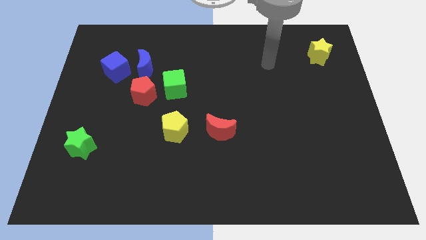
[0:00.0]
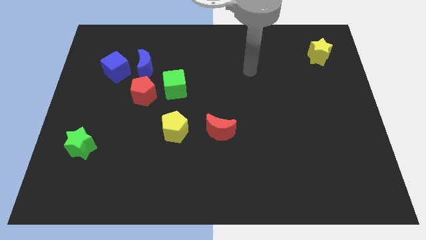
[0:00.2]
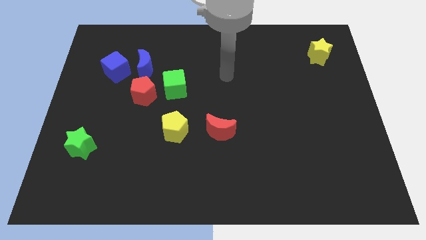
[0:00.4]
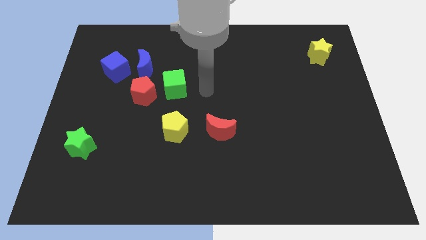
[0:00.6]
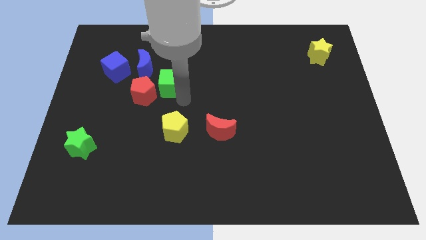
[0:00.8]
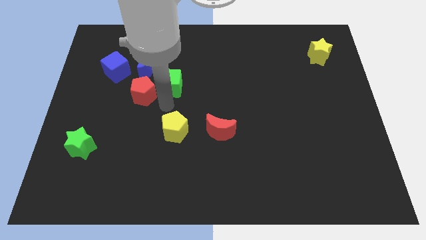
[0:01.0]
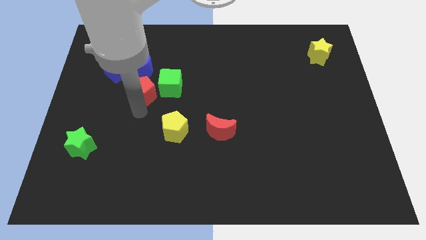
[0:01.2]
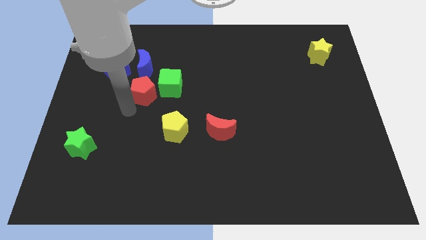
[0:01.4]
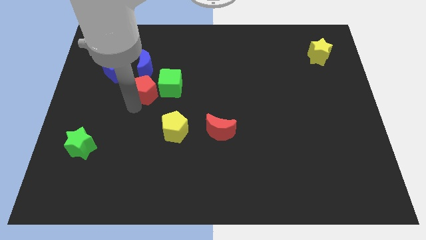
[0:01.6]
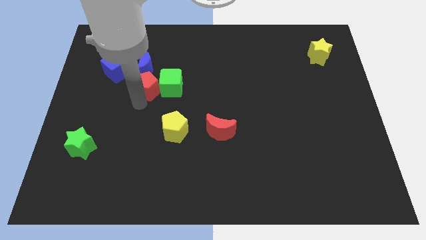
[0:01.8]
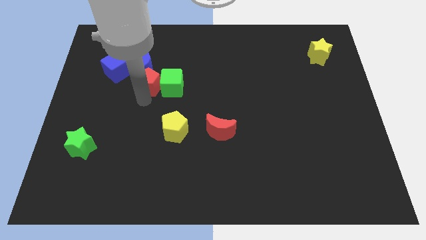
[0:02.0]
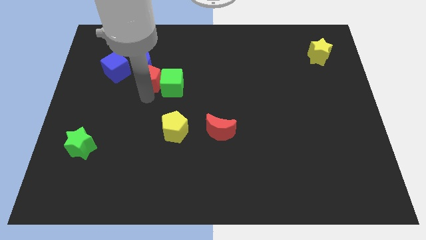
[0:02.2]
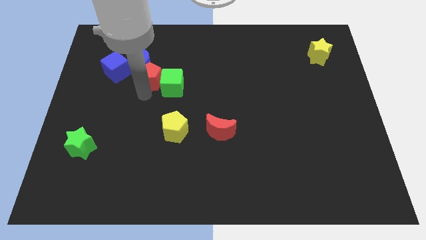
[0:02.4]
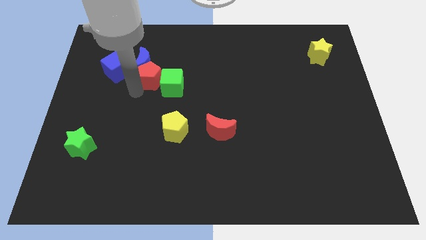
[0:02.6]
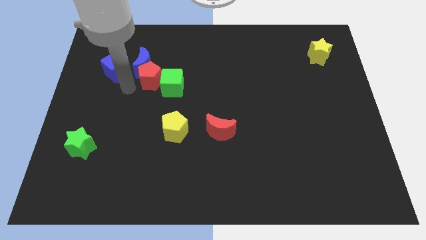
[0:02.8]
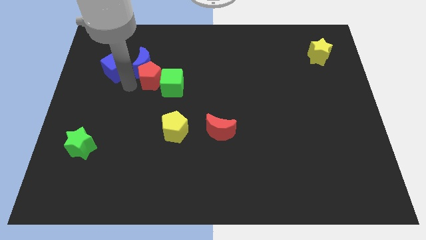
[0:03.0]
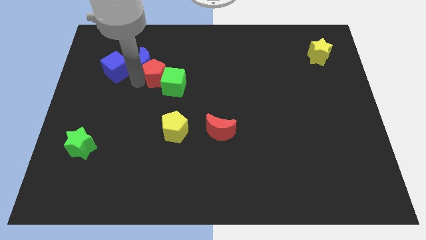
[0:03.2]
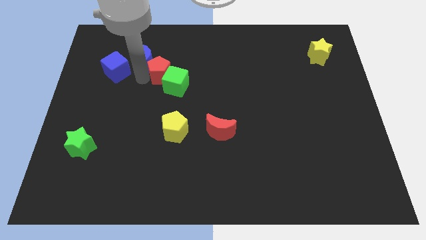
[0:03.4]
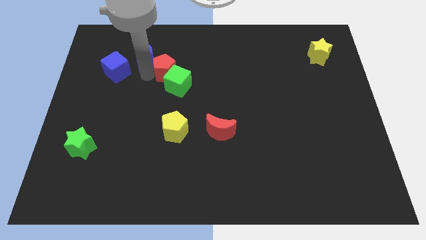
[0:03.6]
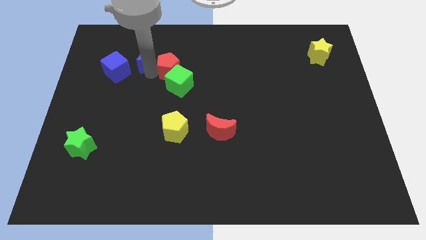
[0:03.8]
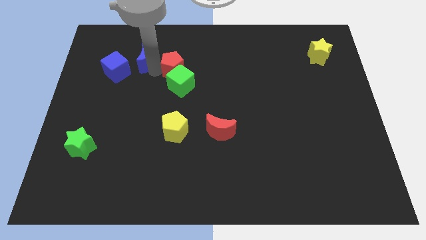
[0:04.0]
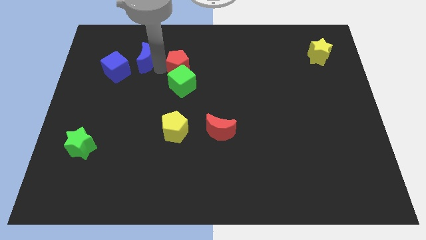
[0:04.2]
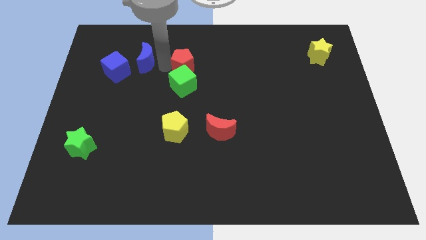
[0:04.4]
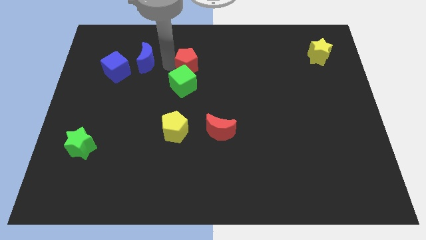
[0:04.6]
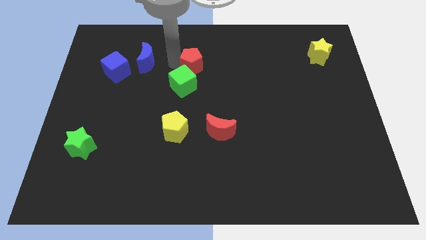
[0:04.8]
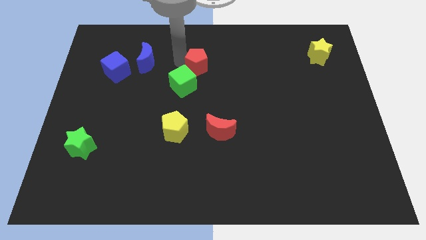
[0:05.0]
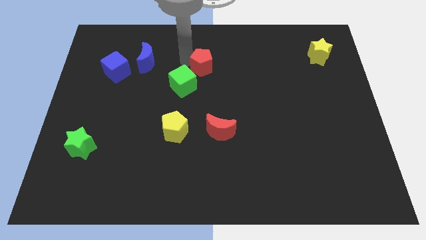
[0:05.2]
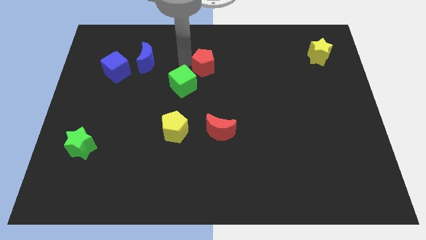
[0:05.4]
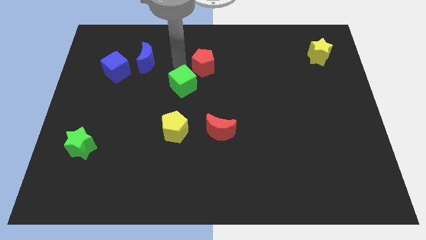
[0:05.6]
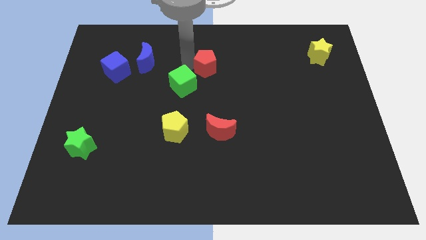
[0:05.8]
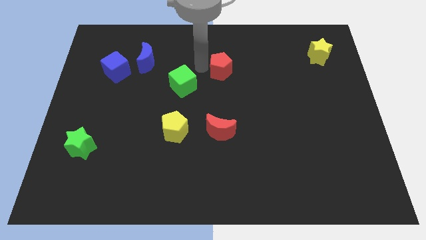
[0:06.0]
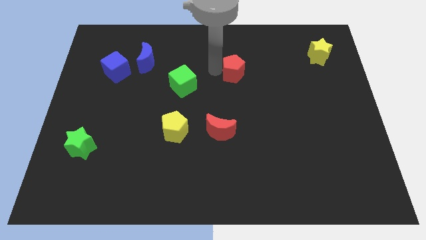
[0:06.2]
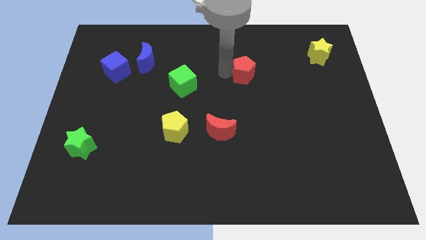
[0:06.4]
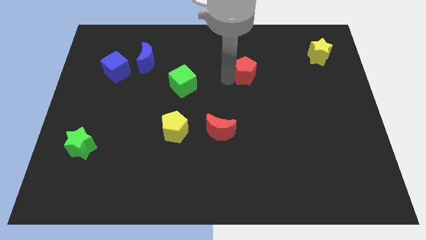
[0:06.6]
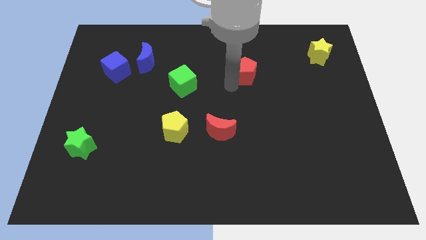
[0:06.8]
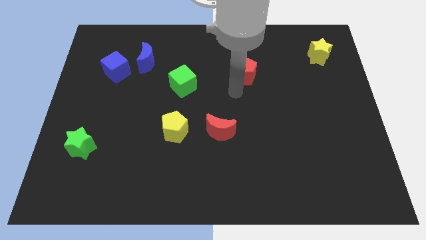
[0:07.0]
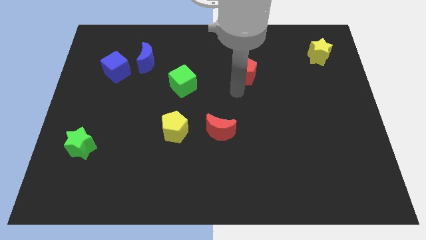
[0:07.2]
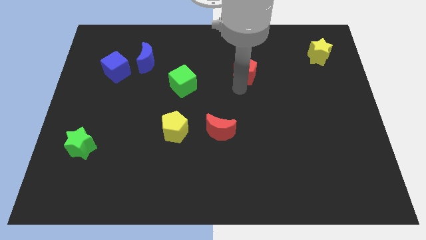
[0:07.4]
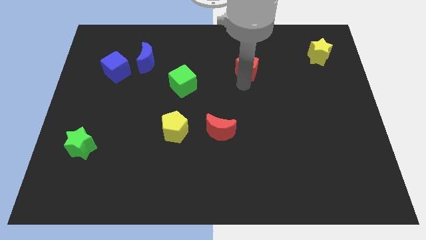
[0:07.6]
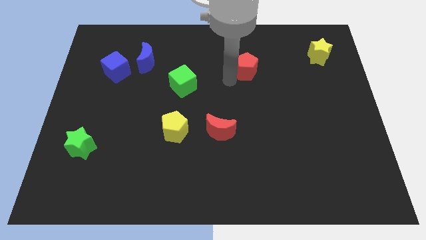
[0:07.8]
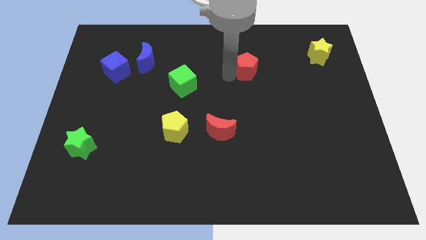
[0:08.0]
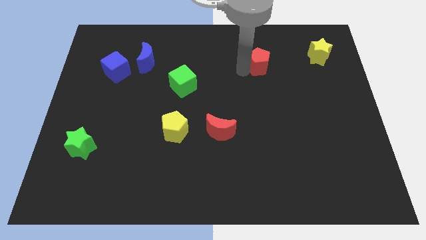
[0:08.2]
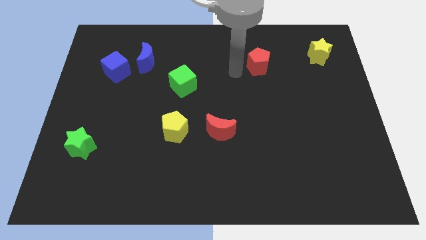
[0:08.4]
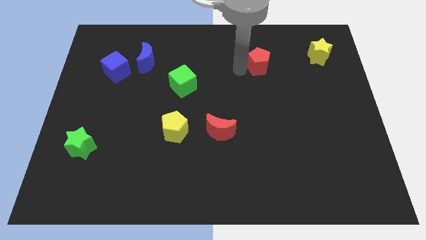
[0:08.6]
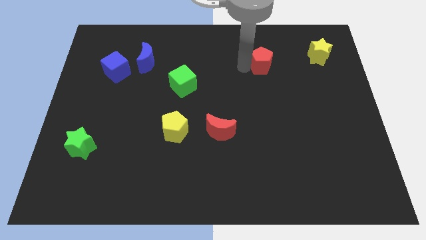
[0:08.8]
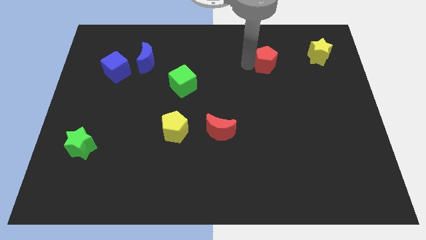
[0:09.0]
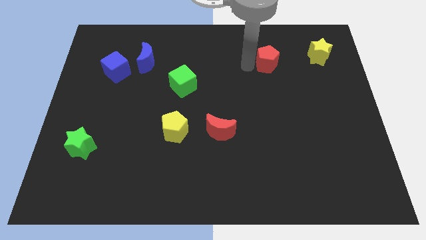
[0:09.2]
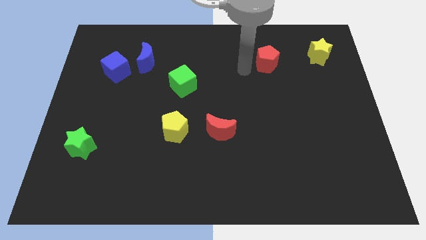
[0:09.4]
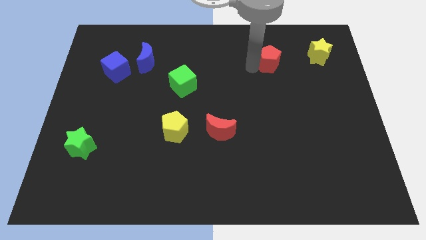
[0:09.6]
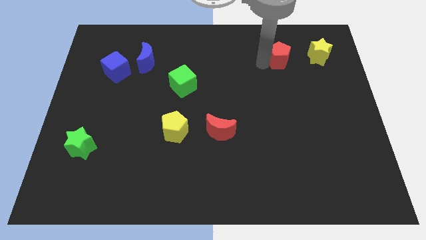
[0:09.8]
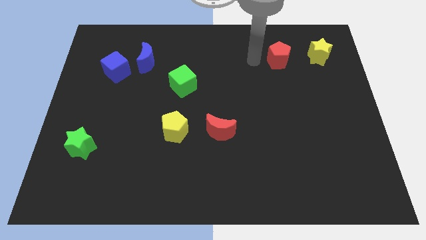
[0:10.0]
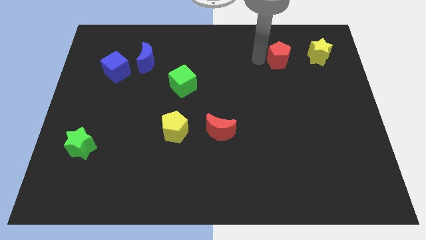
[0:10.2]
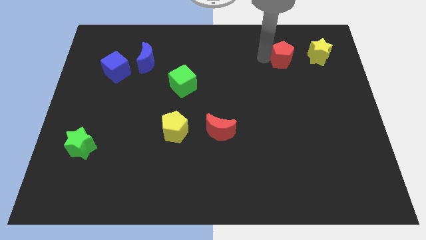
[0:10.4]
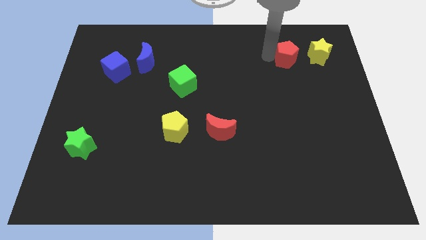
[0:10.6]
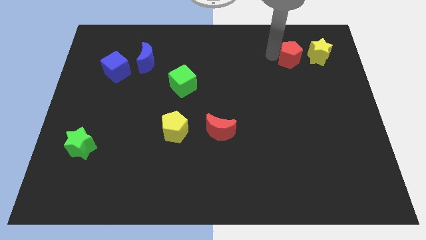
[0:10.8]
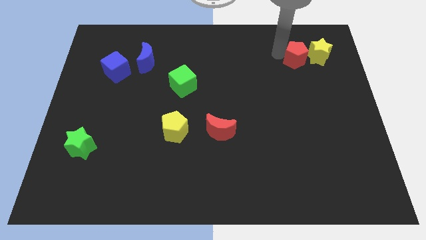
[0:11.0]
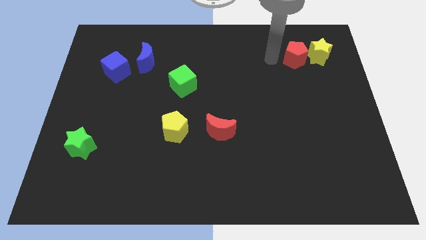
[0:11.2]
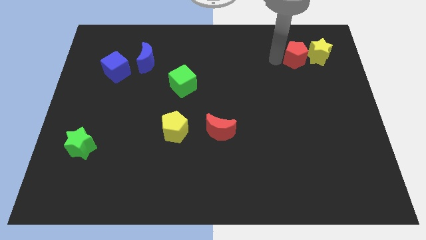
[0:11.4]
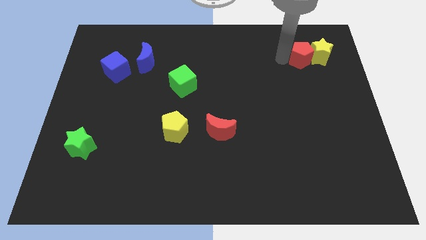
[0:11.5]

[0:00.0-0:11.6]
push the red pentagon close to the yellow star

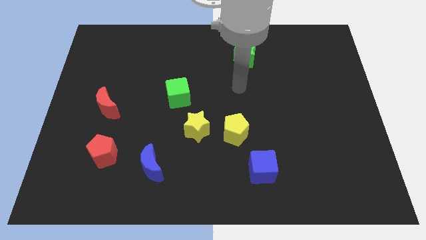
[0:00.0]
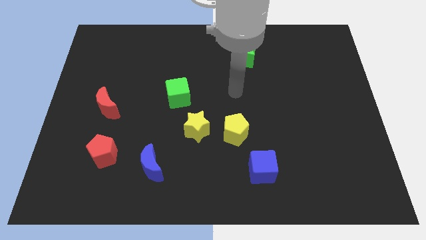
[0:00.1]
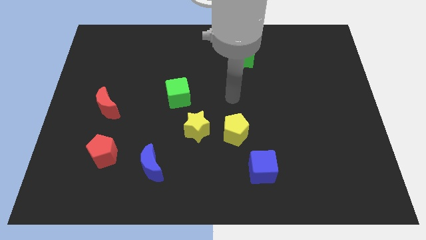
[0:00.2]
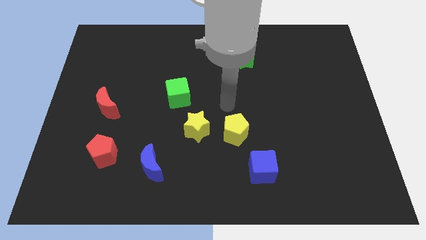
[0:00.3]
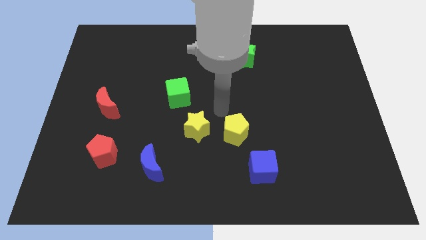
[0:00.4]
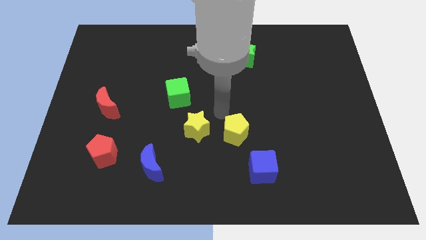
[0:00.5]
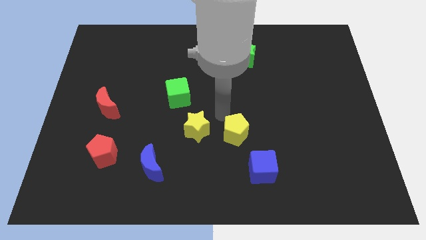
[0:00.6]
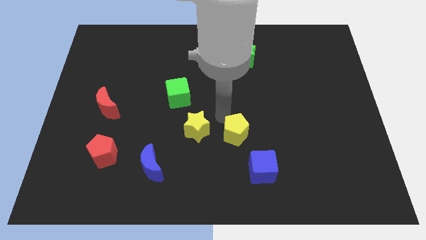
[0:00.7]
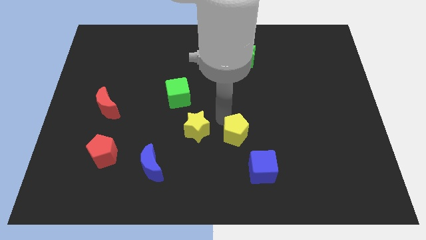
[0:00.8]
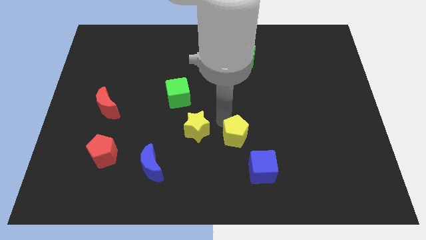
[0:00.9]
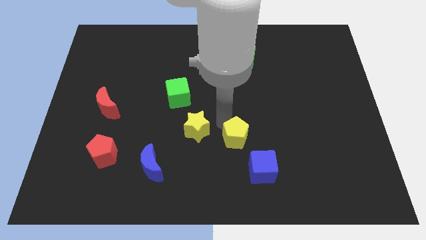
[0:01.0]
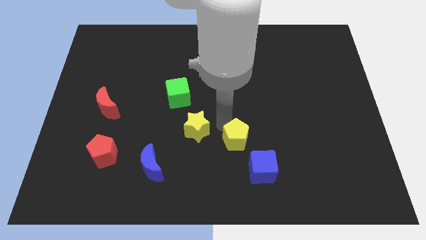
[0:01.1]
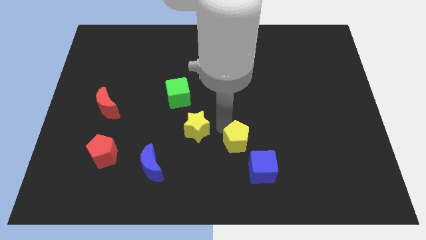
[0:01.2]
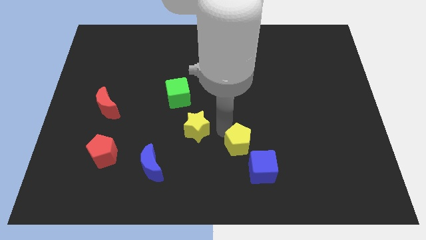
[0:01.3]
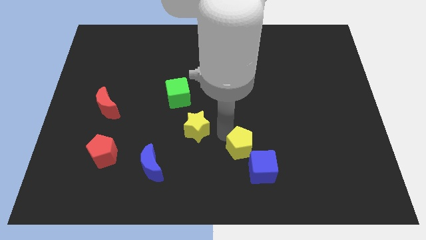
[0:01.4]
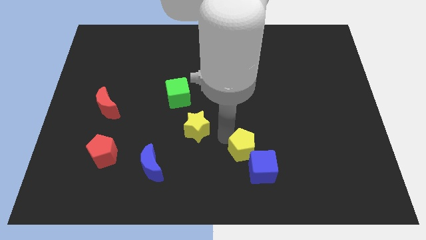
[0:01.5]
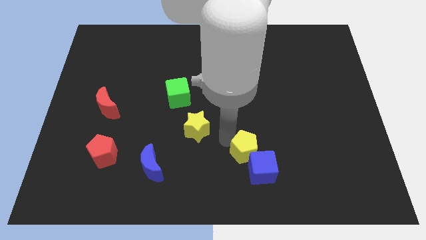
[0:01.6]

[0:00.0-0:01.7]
push the yellow pentagon next to the blue cube

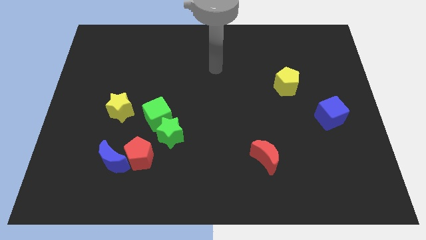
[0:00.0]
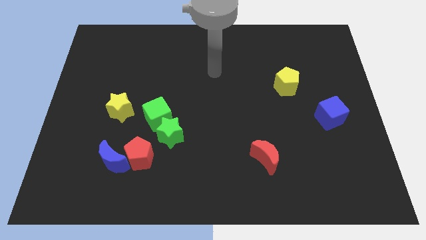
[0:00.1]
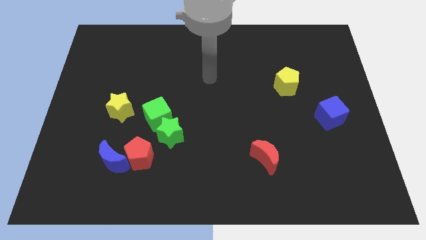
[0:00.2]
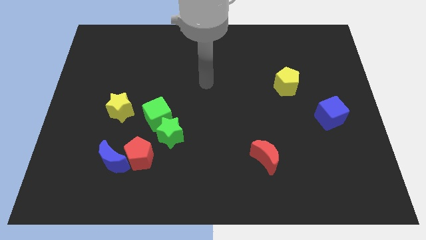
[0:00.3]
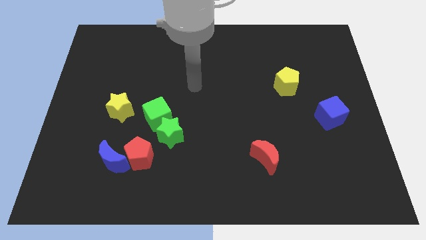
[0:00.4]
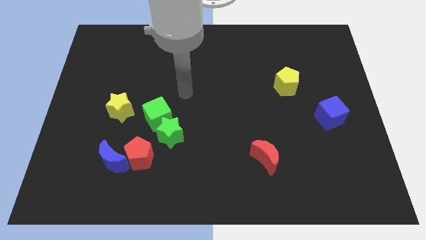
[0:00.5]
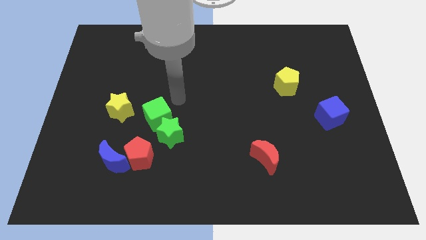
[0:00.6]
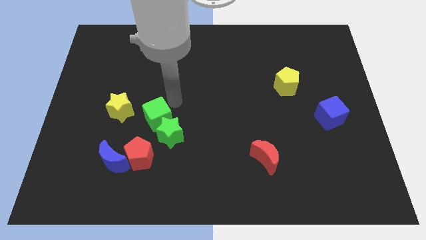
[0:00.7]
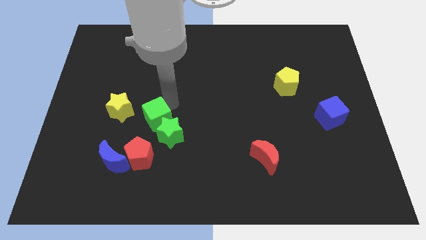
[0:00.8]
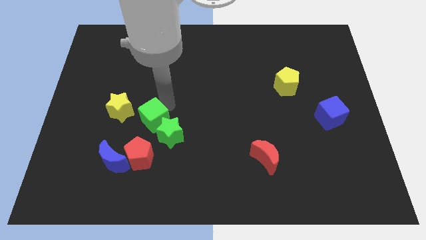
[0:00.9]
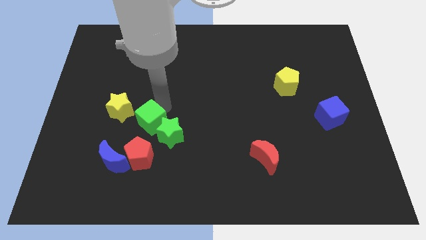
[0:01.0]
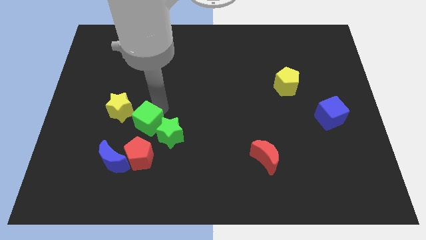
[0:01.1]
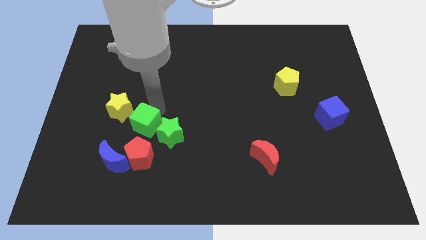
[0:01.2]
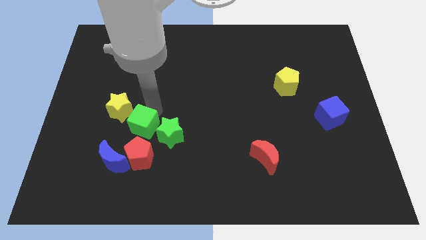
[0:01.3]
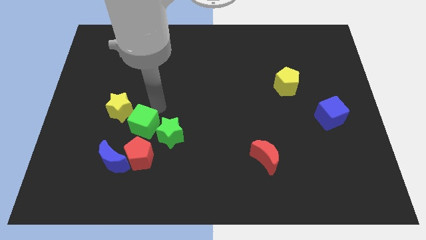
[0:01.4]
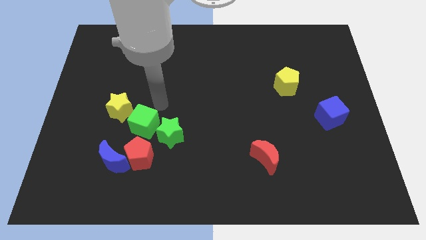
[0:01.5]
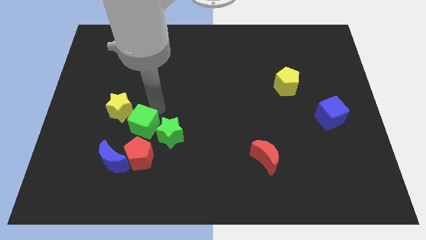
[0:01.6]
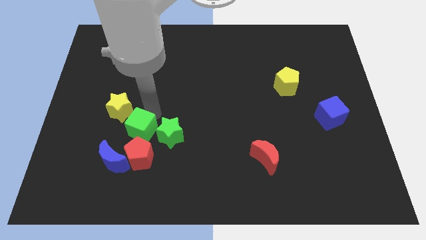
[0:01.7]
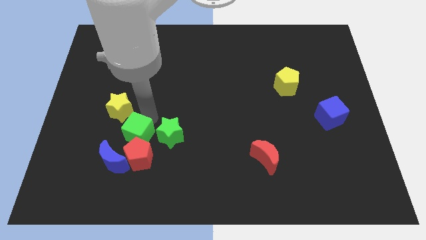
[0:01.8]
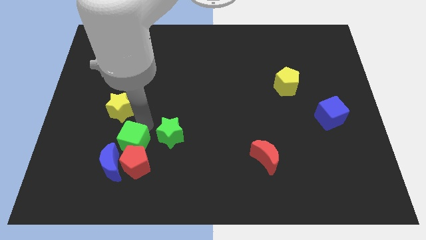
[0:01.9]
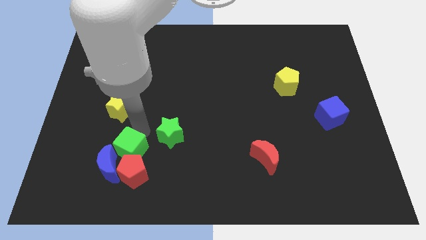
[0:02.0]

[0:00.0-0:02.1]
push the green cube to the blue moon
